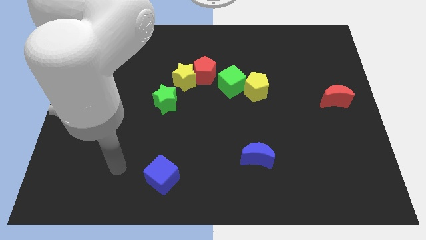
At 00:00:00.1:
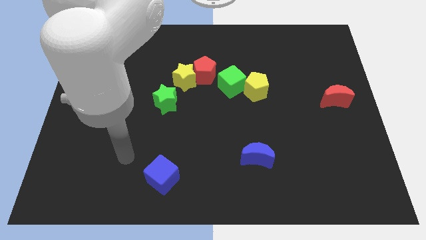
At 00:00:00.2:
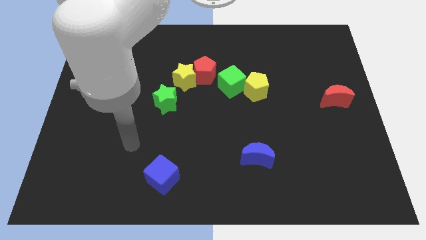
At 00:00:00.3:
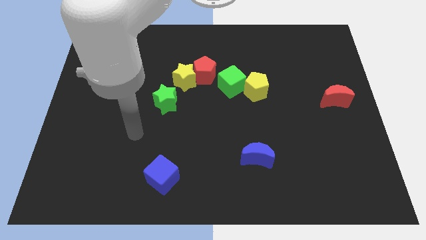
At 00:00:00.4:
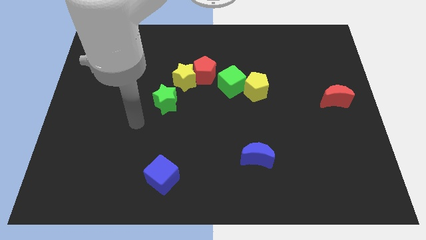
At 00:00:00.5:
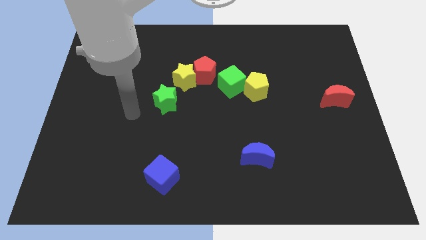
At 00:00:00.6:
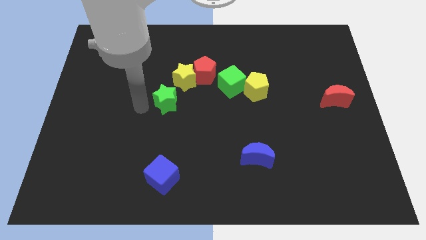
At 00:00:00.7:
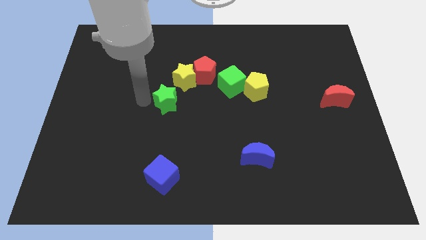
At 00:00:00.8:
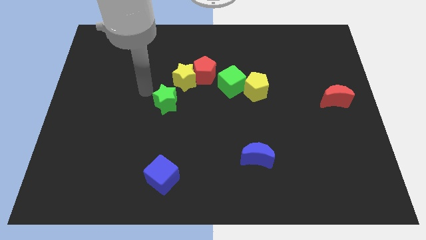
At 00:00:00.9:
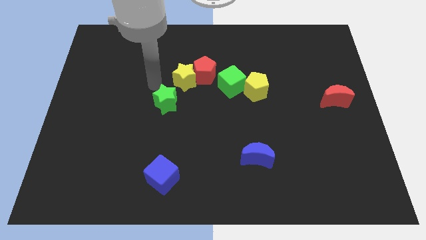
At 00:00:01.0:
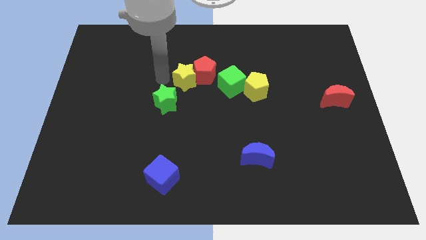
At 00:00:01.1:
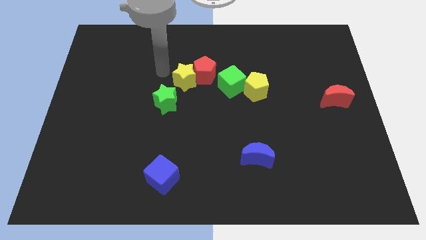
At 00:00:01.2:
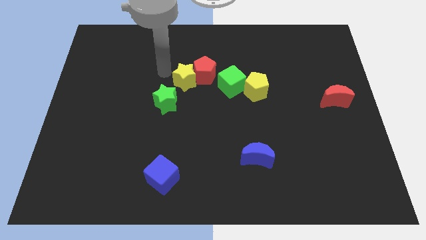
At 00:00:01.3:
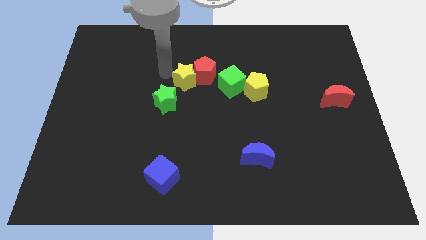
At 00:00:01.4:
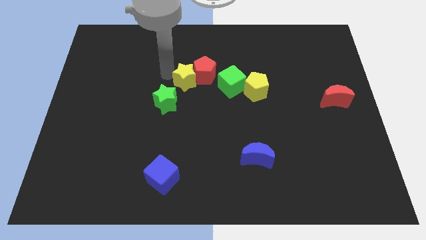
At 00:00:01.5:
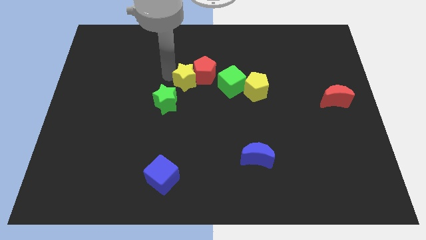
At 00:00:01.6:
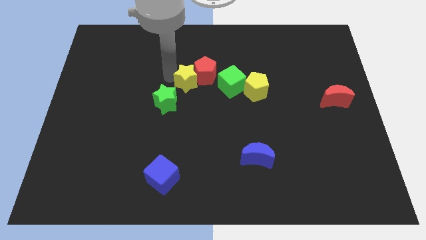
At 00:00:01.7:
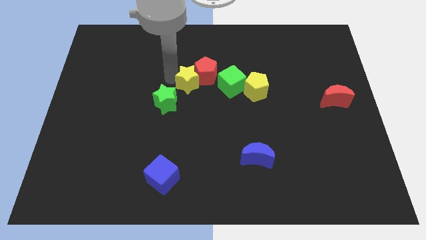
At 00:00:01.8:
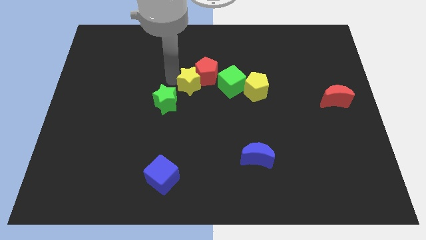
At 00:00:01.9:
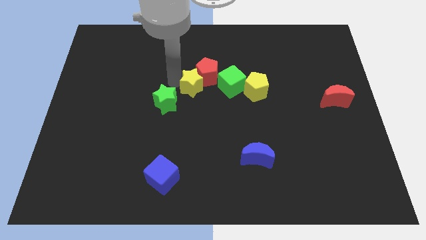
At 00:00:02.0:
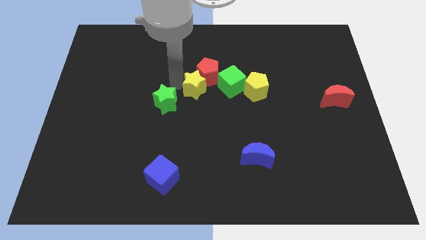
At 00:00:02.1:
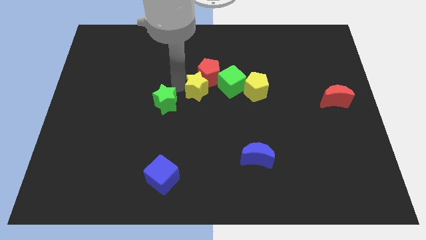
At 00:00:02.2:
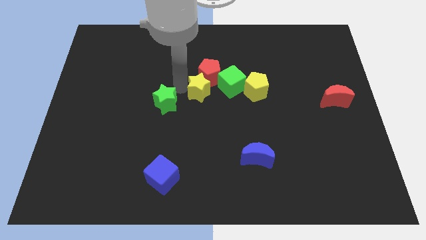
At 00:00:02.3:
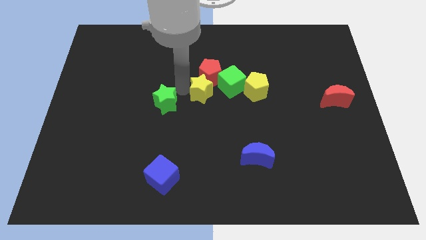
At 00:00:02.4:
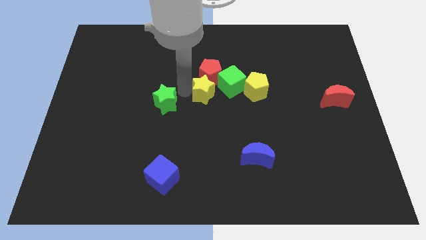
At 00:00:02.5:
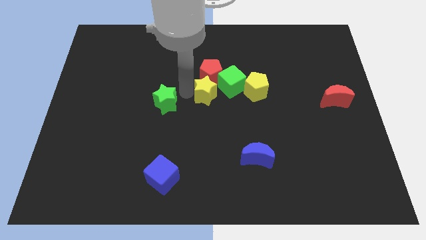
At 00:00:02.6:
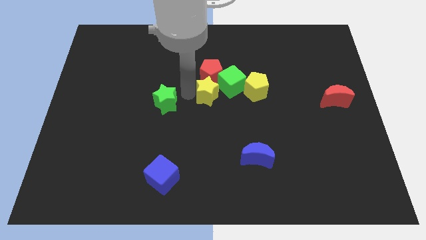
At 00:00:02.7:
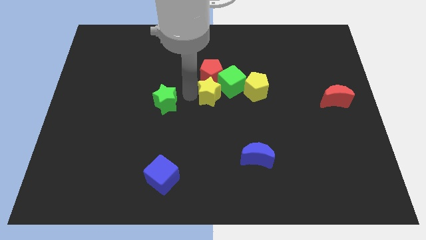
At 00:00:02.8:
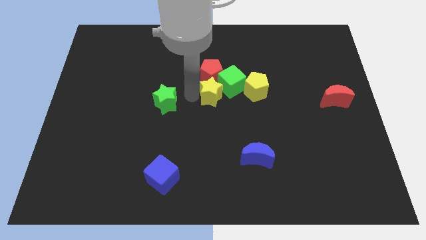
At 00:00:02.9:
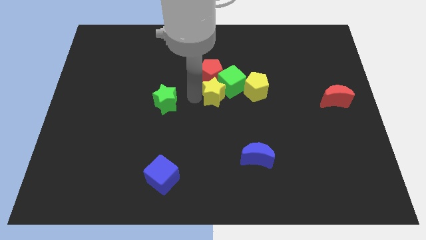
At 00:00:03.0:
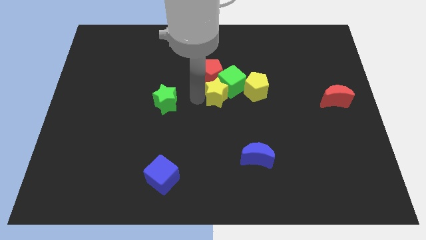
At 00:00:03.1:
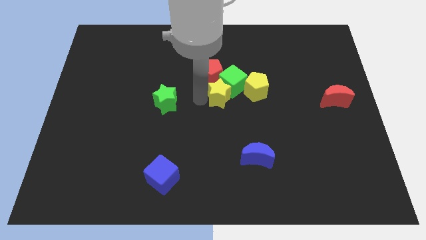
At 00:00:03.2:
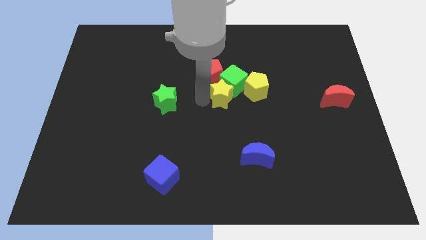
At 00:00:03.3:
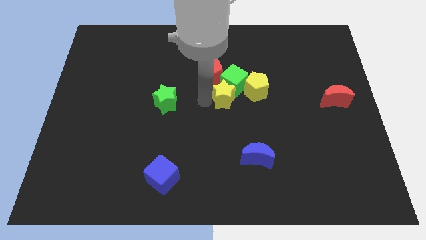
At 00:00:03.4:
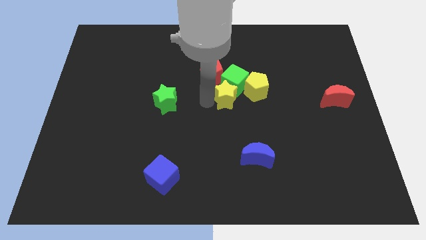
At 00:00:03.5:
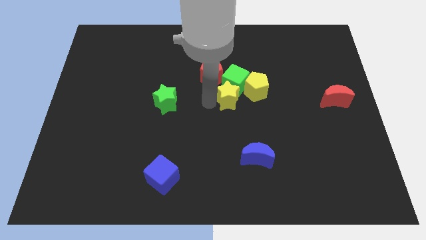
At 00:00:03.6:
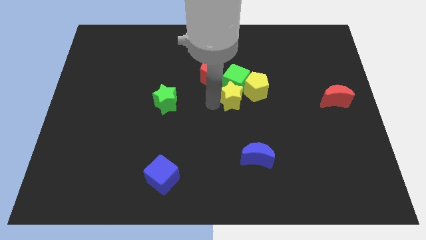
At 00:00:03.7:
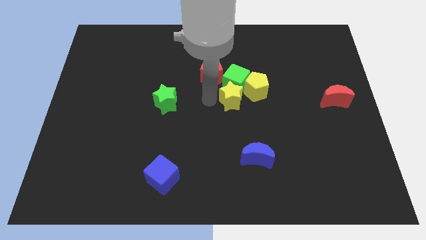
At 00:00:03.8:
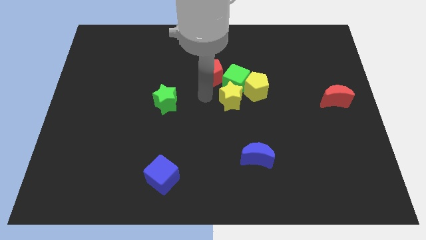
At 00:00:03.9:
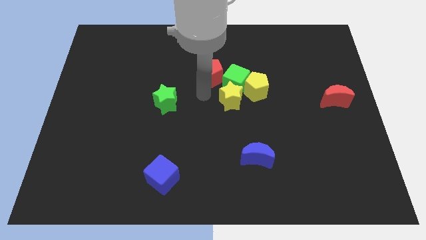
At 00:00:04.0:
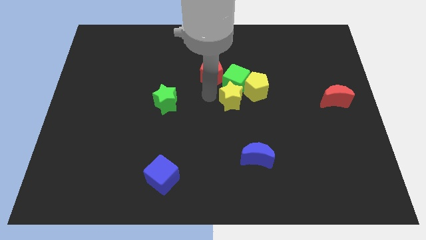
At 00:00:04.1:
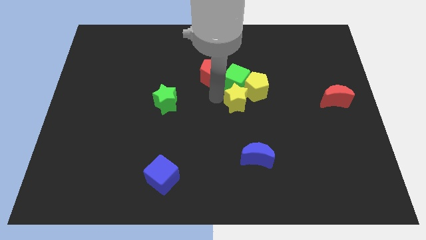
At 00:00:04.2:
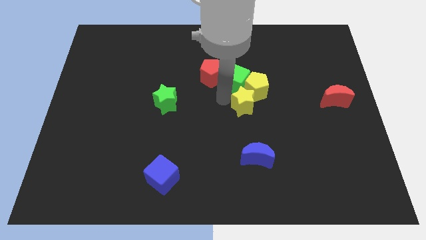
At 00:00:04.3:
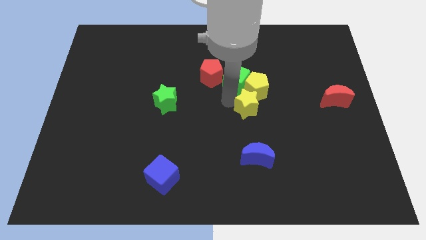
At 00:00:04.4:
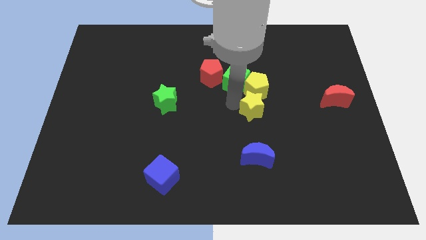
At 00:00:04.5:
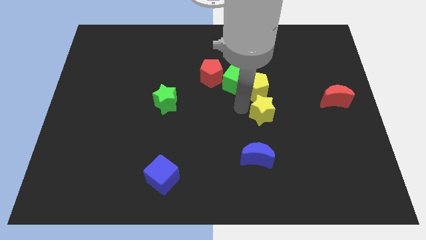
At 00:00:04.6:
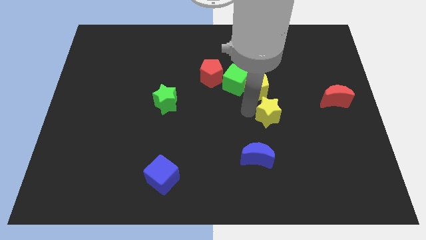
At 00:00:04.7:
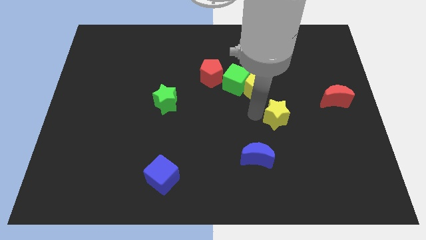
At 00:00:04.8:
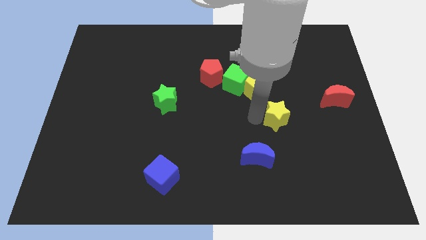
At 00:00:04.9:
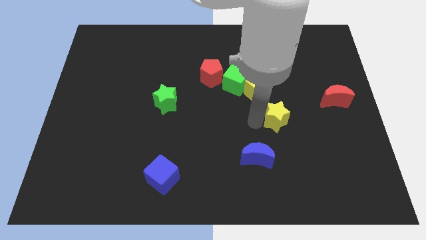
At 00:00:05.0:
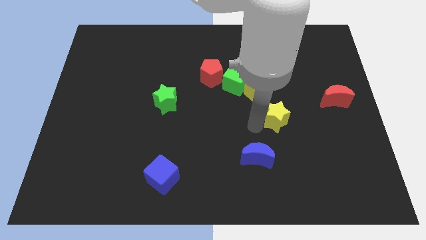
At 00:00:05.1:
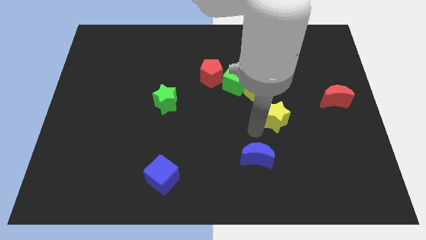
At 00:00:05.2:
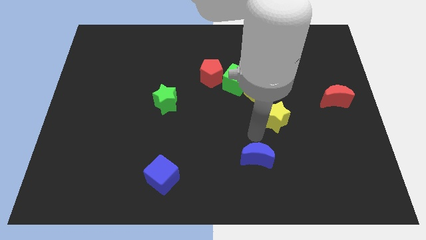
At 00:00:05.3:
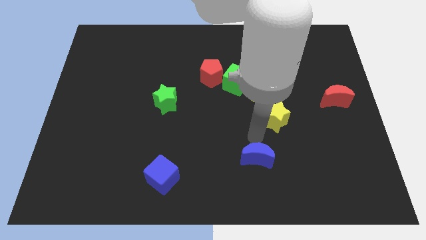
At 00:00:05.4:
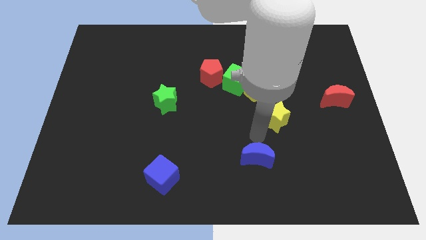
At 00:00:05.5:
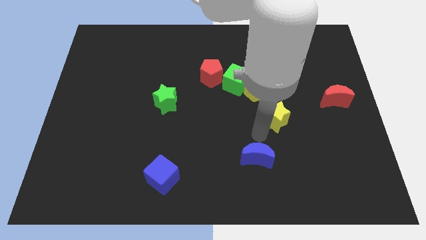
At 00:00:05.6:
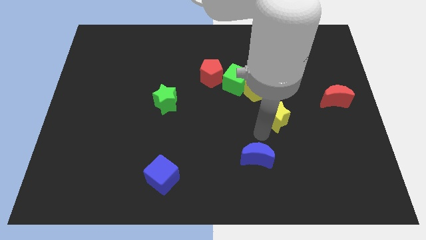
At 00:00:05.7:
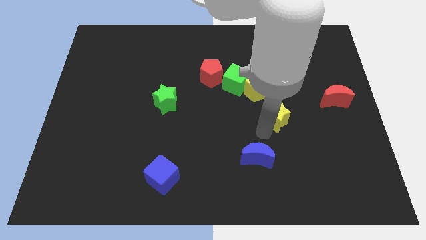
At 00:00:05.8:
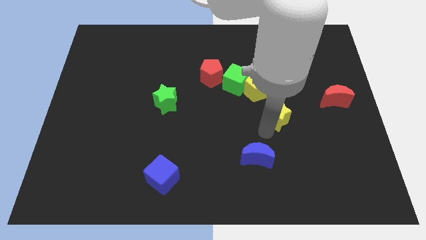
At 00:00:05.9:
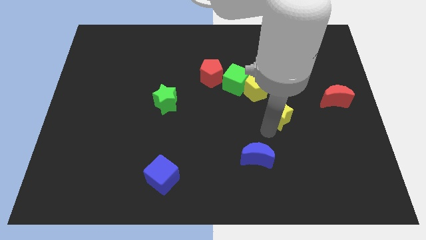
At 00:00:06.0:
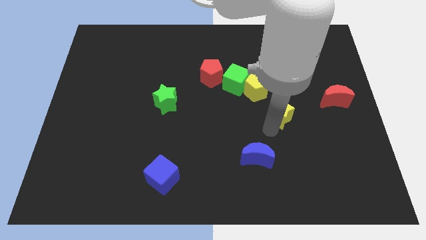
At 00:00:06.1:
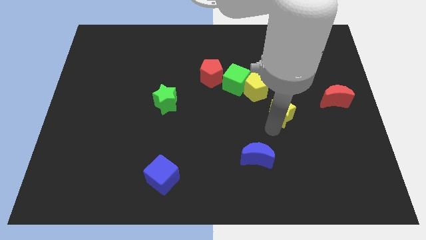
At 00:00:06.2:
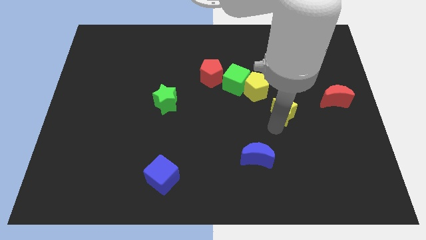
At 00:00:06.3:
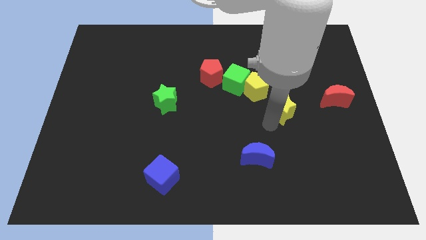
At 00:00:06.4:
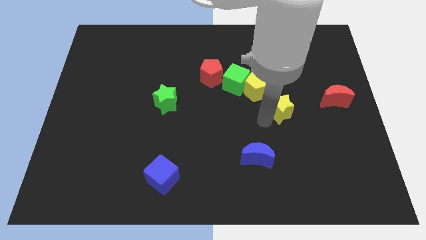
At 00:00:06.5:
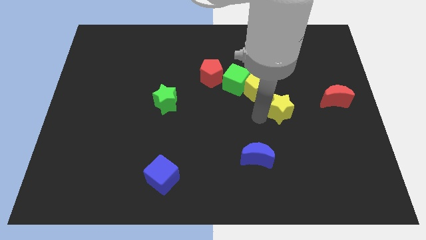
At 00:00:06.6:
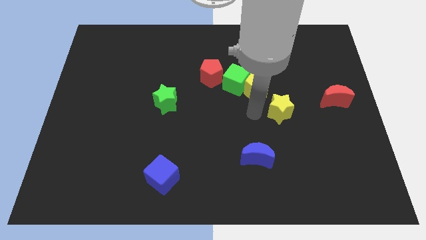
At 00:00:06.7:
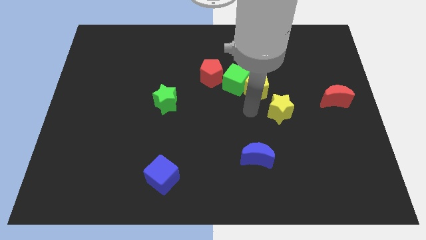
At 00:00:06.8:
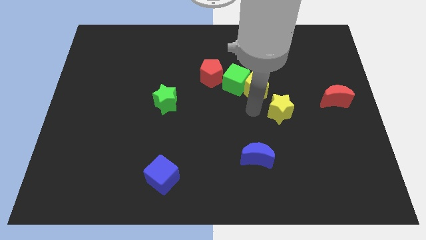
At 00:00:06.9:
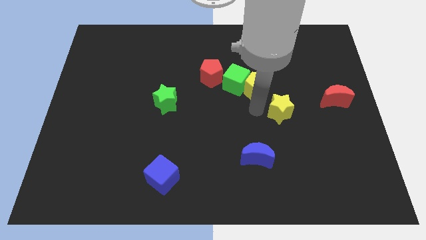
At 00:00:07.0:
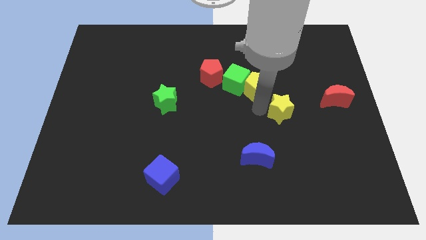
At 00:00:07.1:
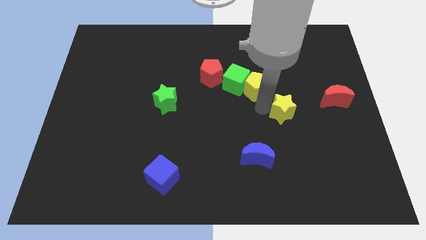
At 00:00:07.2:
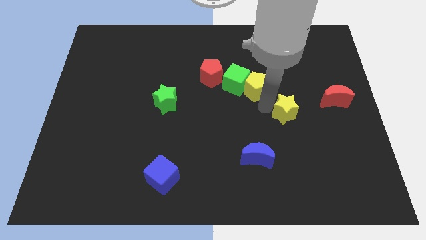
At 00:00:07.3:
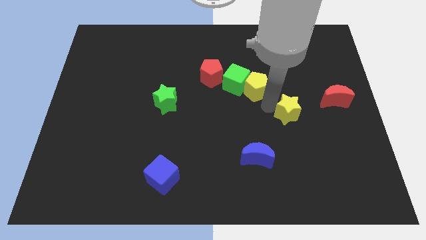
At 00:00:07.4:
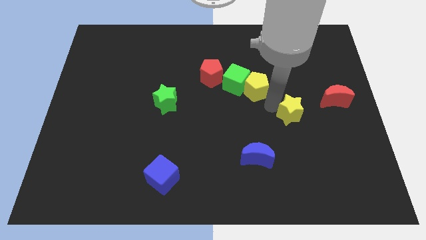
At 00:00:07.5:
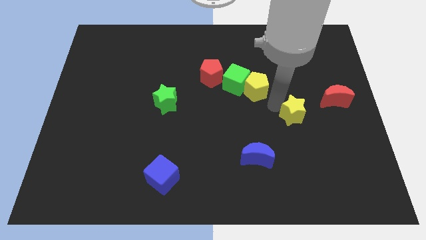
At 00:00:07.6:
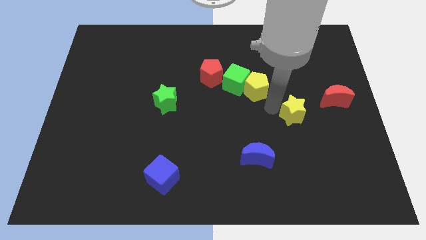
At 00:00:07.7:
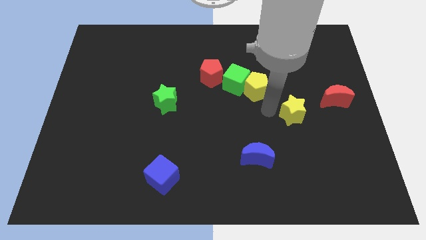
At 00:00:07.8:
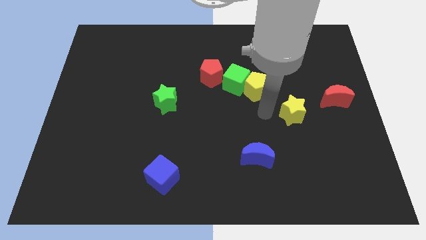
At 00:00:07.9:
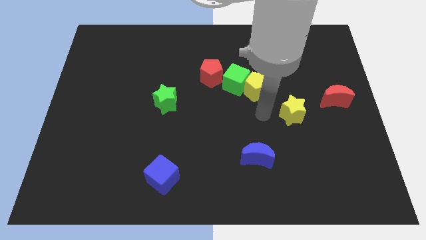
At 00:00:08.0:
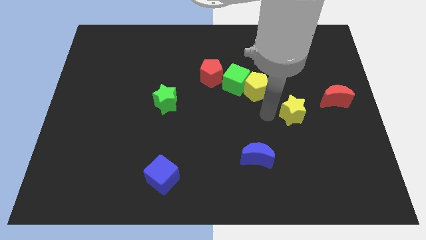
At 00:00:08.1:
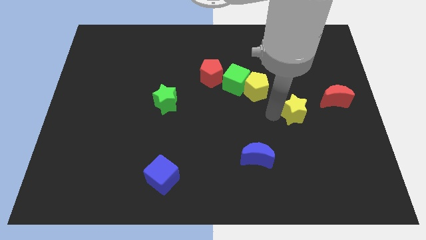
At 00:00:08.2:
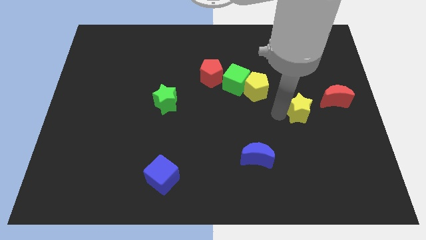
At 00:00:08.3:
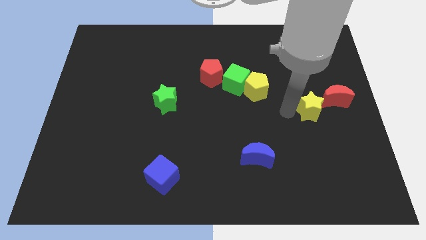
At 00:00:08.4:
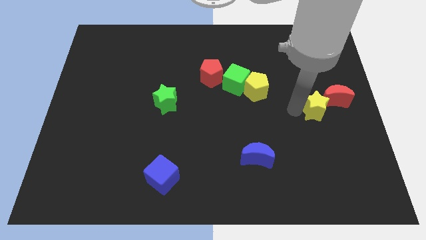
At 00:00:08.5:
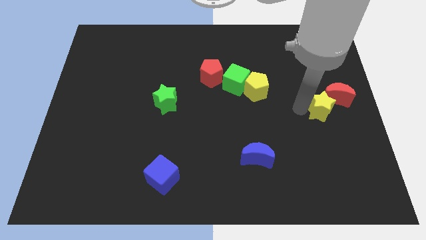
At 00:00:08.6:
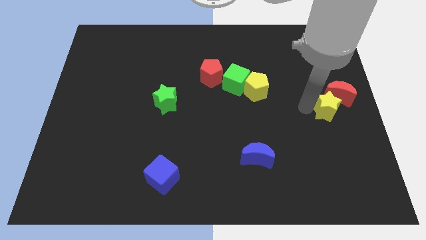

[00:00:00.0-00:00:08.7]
push the yellow star to the right side of the board
